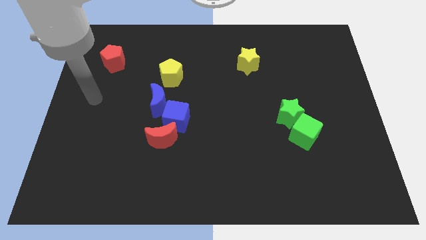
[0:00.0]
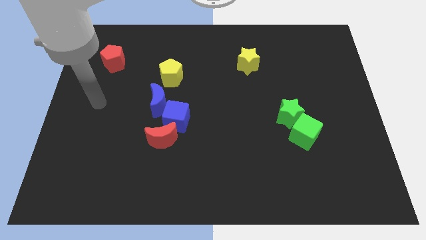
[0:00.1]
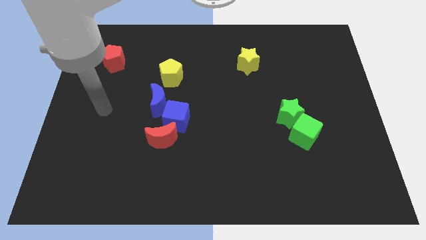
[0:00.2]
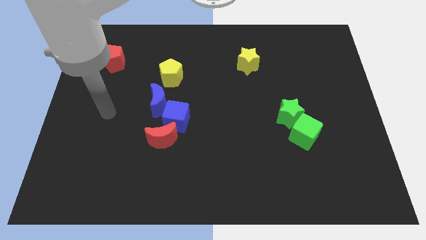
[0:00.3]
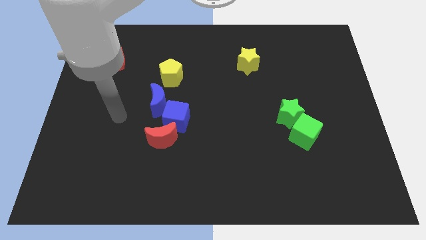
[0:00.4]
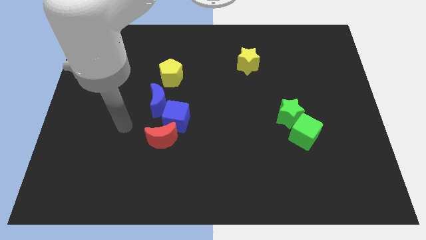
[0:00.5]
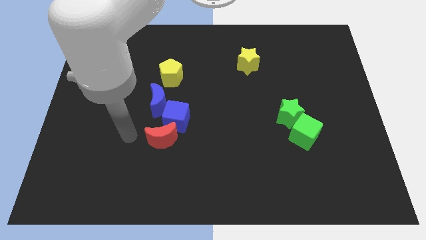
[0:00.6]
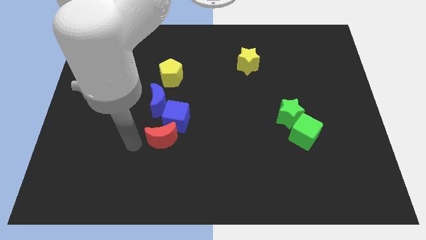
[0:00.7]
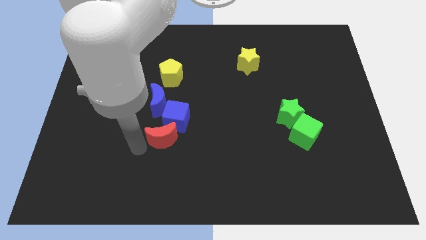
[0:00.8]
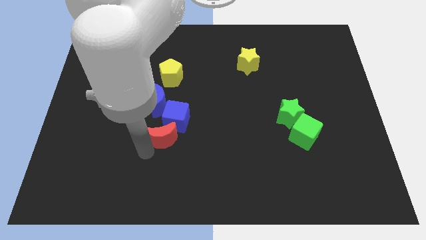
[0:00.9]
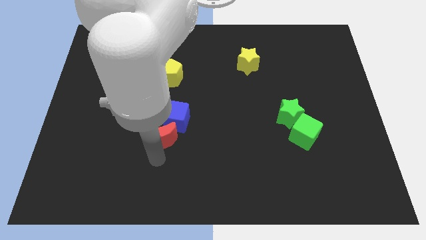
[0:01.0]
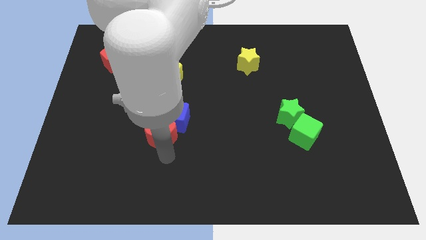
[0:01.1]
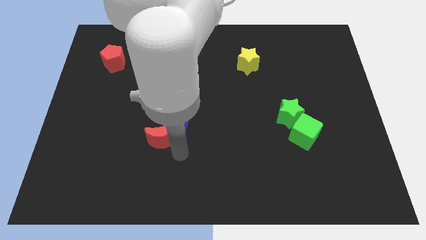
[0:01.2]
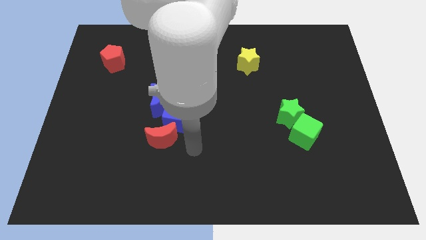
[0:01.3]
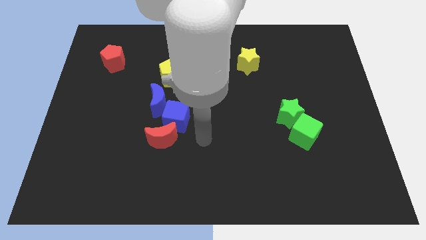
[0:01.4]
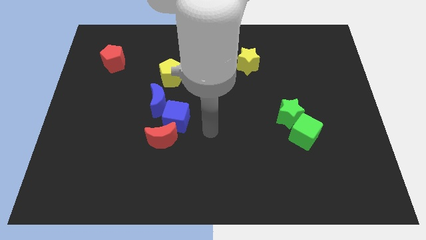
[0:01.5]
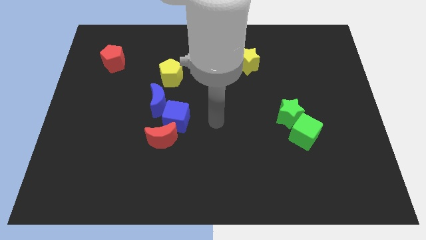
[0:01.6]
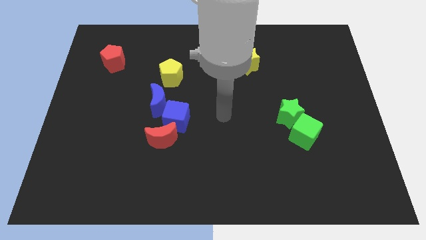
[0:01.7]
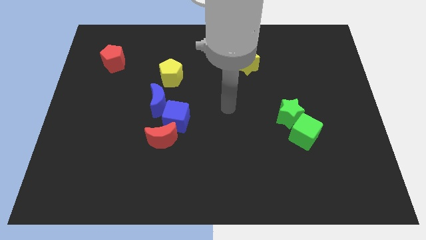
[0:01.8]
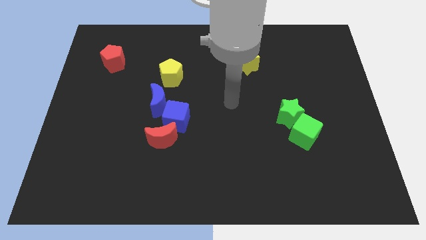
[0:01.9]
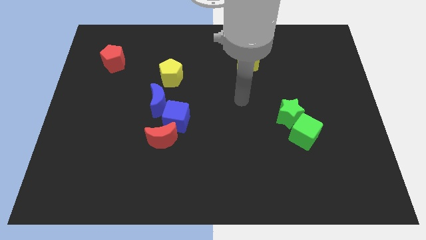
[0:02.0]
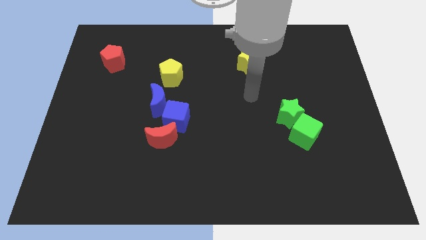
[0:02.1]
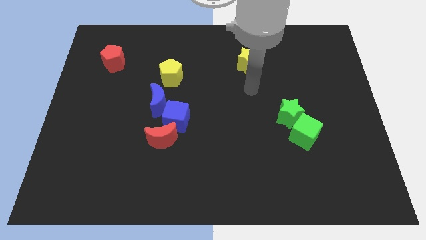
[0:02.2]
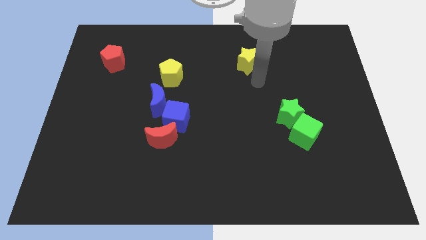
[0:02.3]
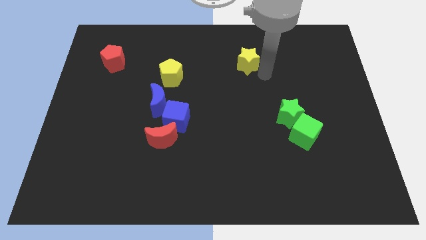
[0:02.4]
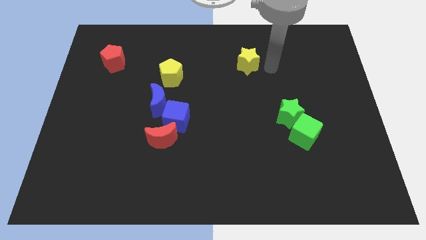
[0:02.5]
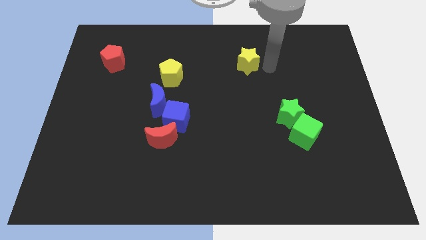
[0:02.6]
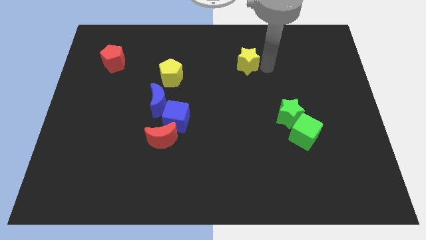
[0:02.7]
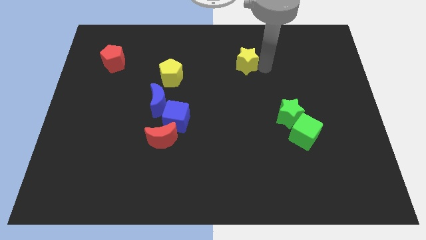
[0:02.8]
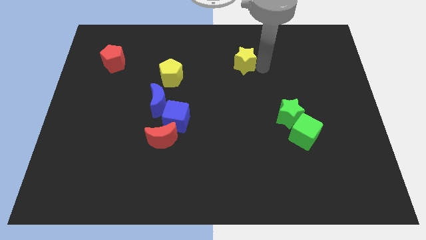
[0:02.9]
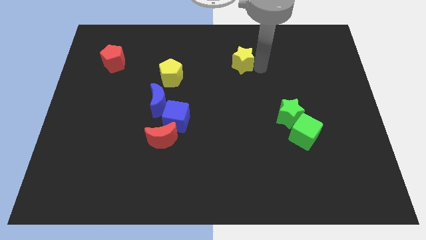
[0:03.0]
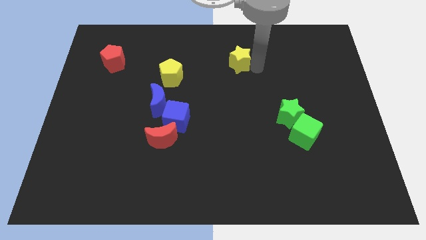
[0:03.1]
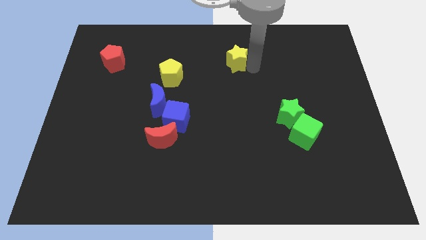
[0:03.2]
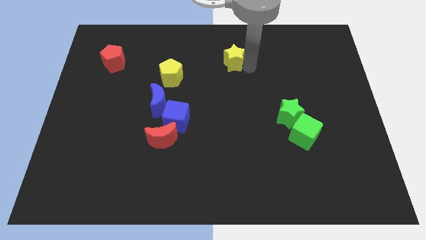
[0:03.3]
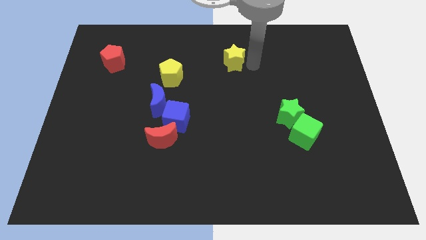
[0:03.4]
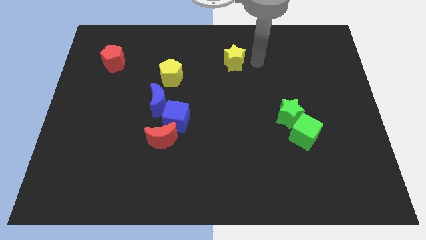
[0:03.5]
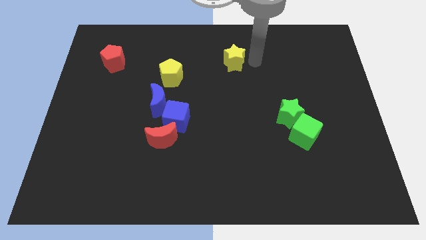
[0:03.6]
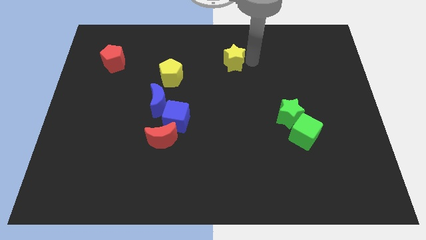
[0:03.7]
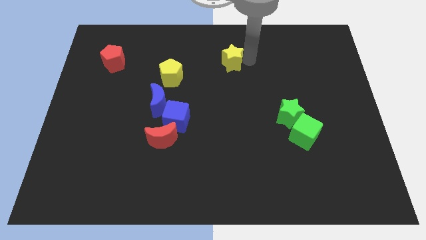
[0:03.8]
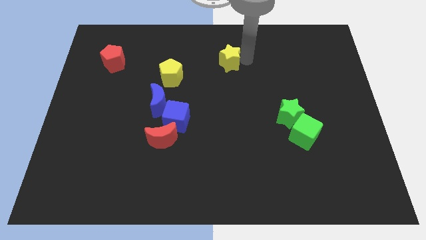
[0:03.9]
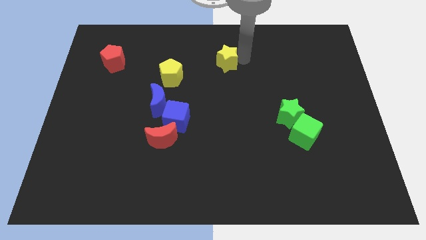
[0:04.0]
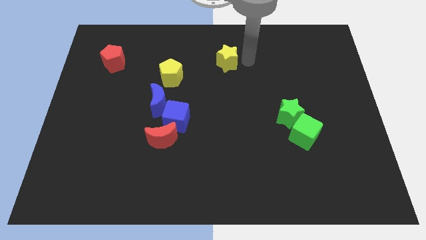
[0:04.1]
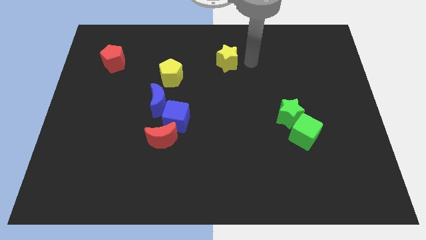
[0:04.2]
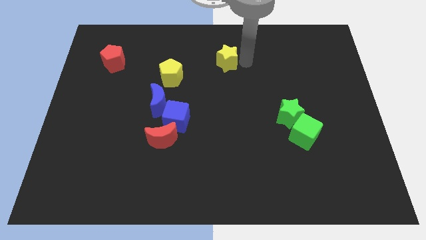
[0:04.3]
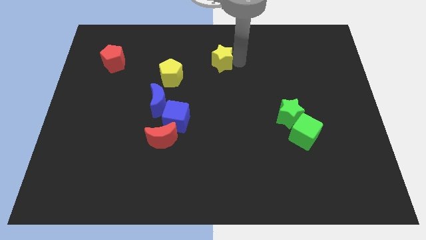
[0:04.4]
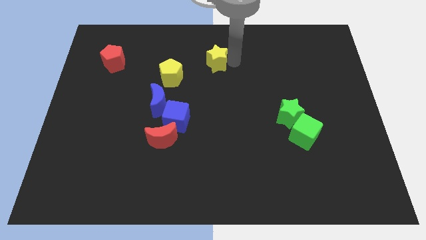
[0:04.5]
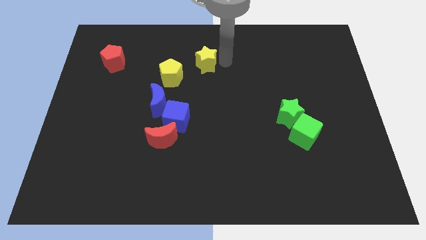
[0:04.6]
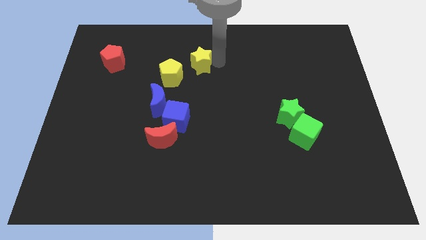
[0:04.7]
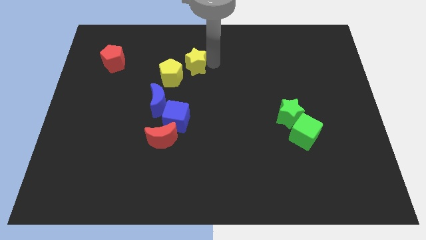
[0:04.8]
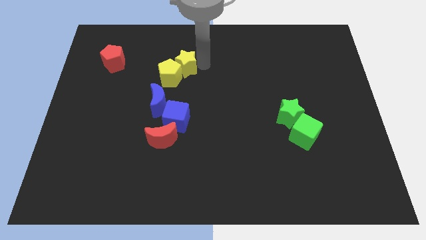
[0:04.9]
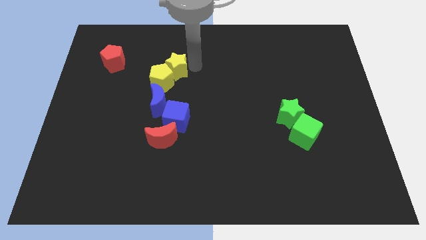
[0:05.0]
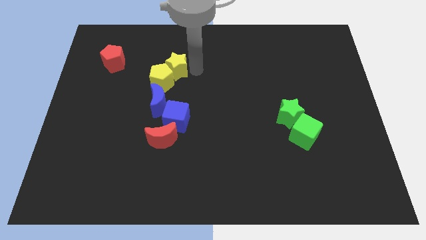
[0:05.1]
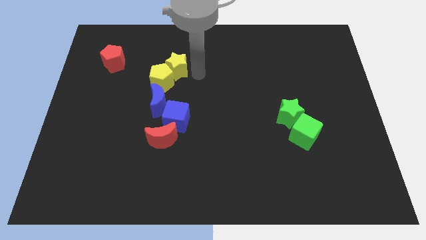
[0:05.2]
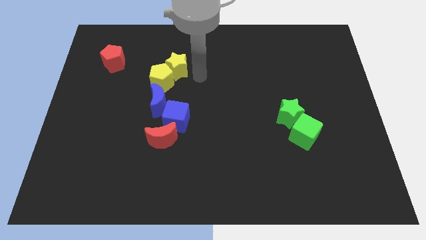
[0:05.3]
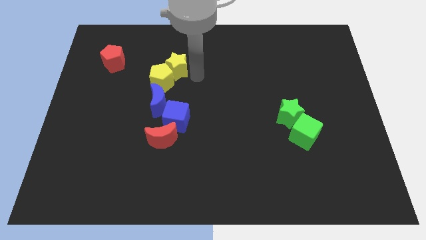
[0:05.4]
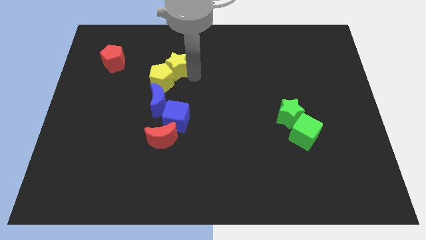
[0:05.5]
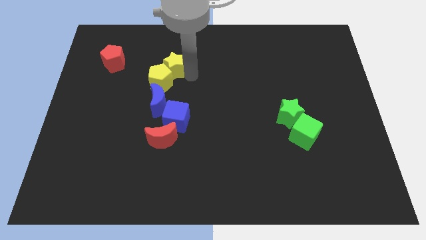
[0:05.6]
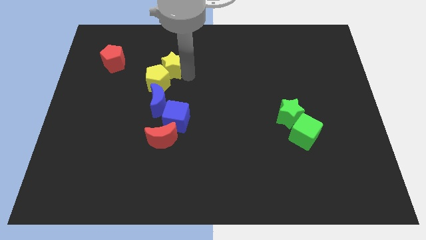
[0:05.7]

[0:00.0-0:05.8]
move the yellow star to the right side of the red pentagon

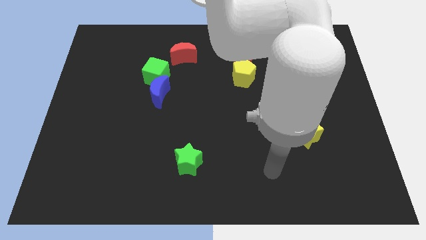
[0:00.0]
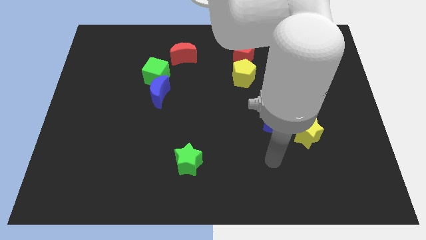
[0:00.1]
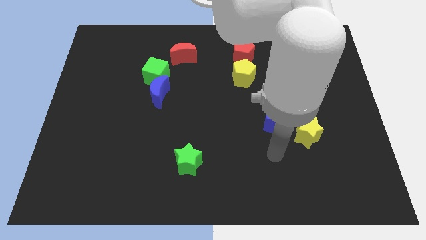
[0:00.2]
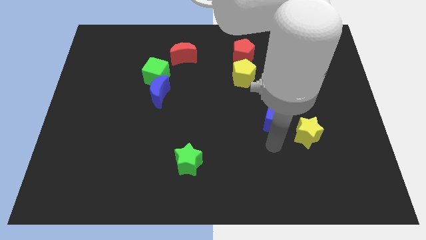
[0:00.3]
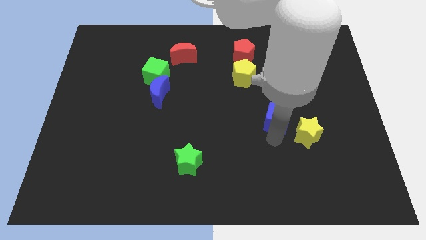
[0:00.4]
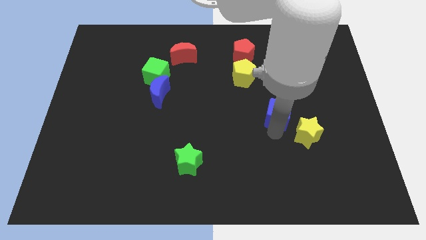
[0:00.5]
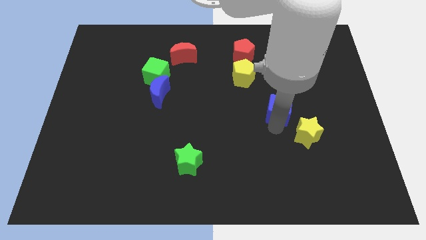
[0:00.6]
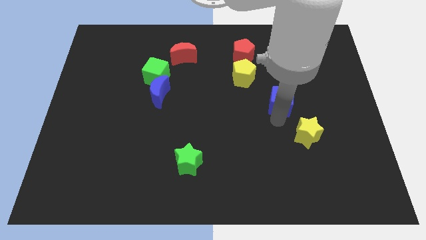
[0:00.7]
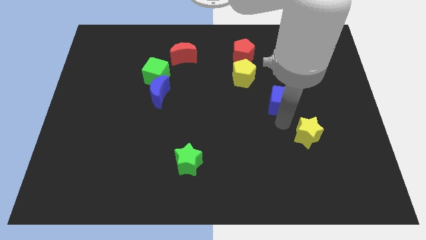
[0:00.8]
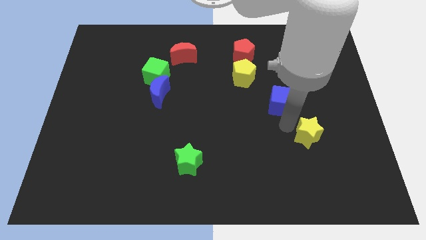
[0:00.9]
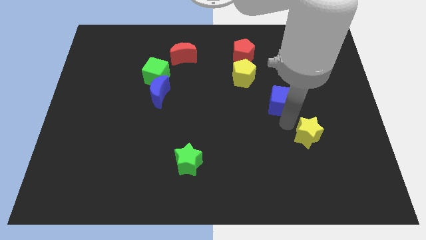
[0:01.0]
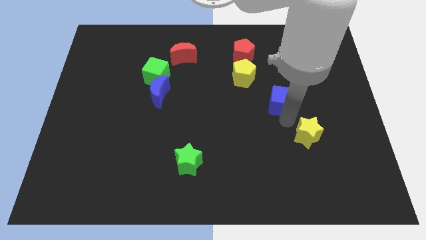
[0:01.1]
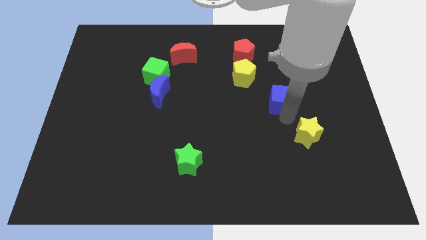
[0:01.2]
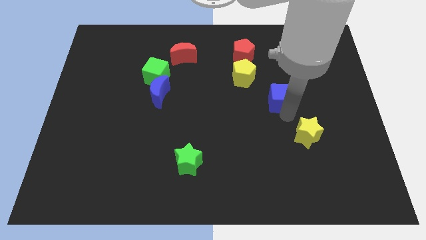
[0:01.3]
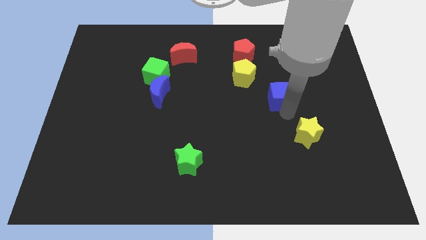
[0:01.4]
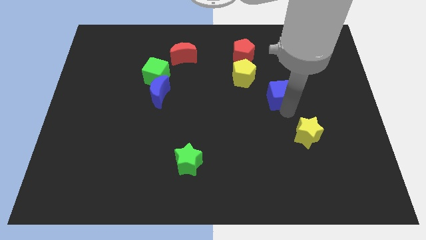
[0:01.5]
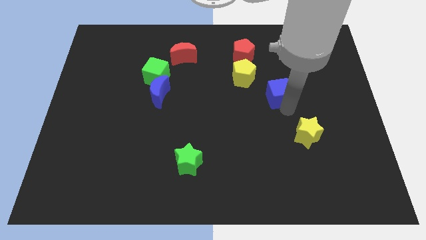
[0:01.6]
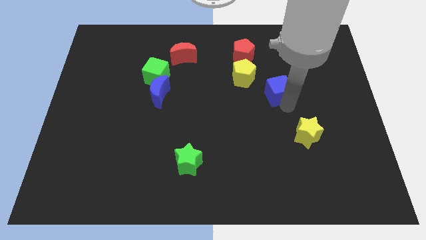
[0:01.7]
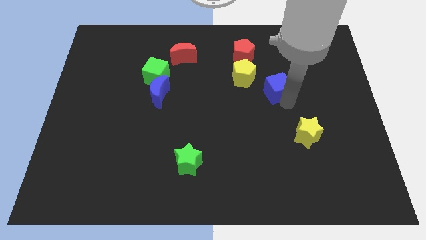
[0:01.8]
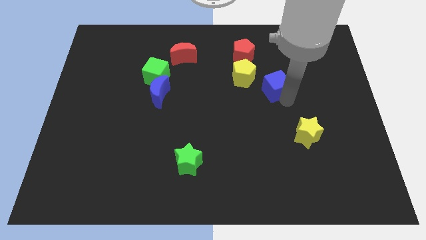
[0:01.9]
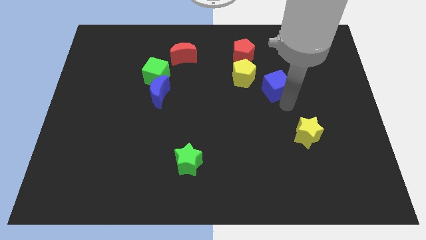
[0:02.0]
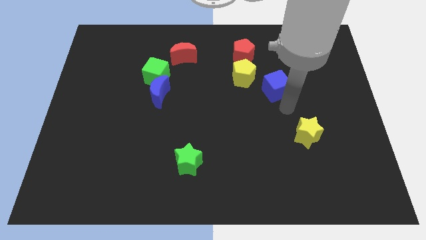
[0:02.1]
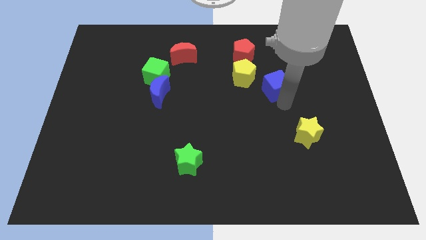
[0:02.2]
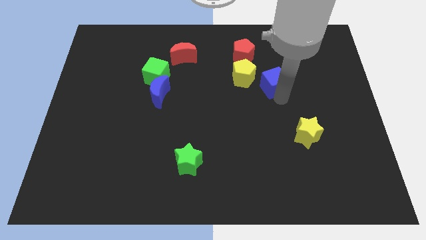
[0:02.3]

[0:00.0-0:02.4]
put the blue cube diagonally down and to the right of the red pentagon
